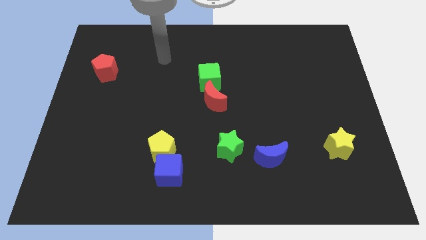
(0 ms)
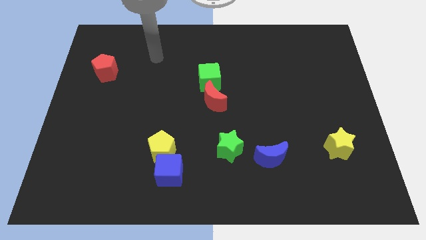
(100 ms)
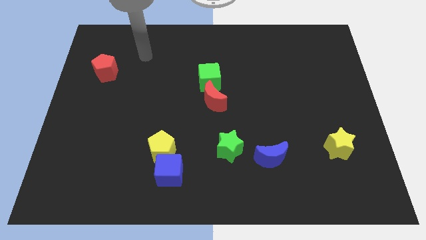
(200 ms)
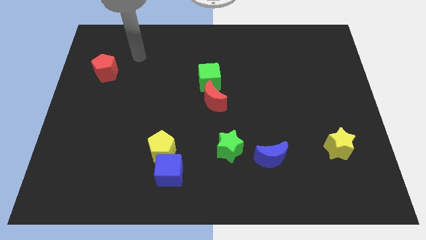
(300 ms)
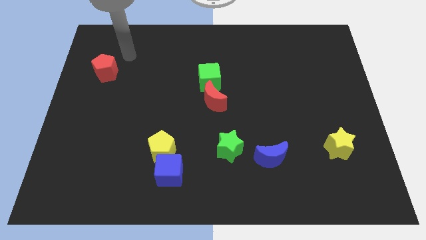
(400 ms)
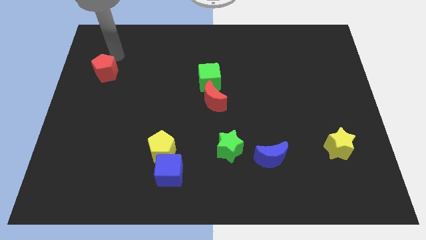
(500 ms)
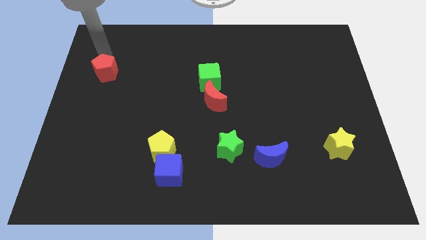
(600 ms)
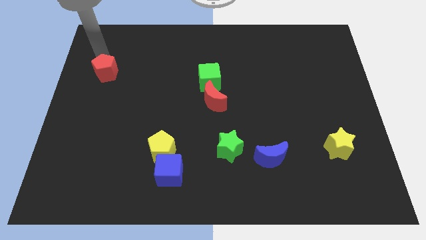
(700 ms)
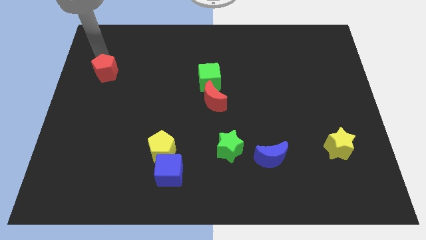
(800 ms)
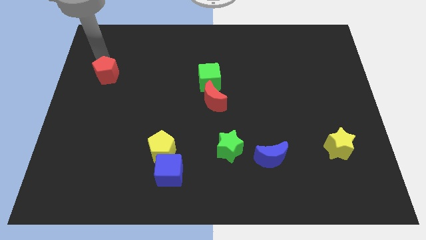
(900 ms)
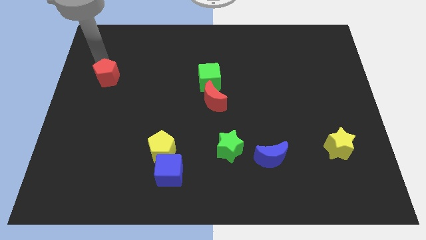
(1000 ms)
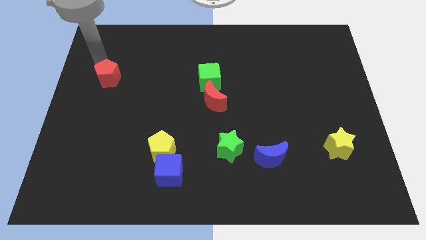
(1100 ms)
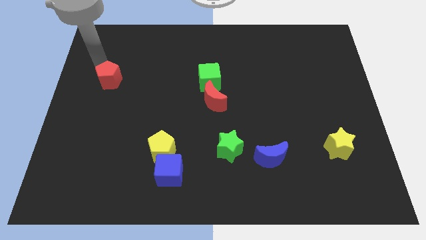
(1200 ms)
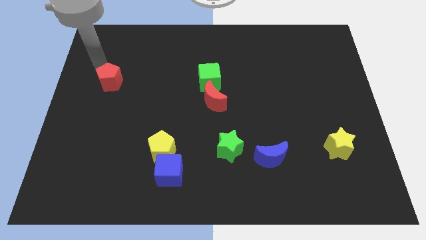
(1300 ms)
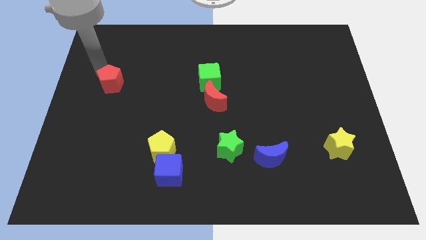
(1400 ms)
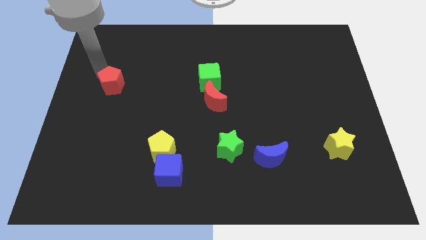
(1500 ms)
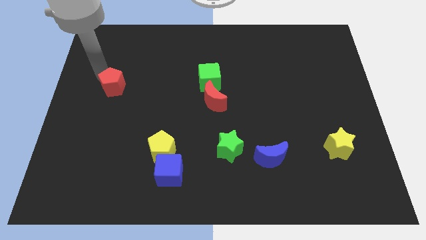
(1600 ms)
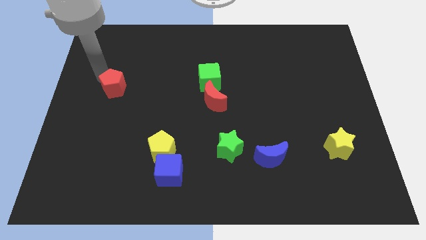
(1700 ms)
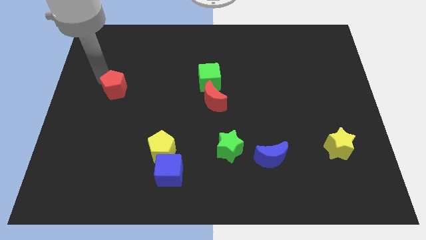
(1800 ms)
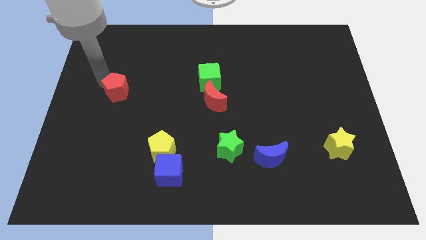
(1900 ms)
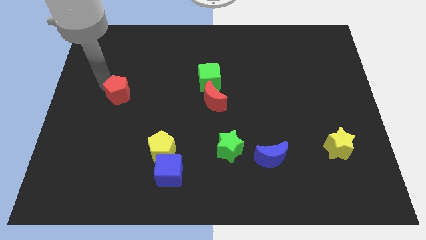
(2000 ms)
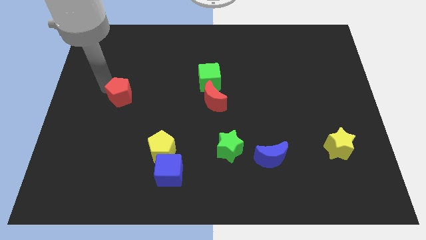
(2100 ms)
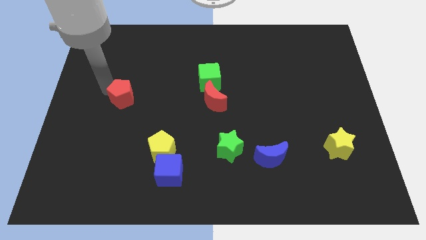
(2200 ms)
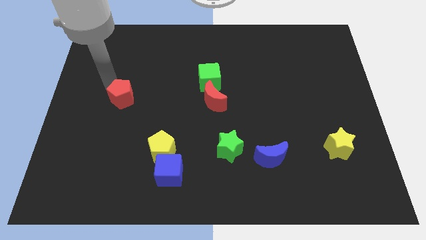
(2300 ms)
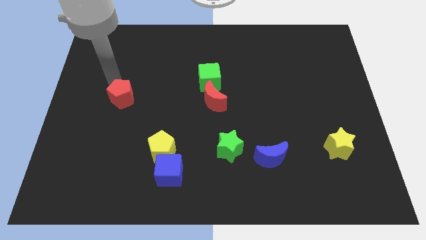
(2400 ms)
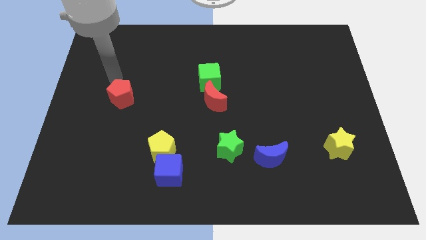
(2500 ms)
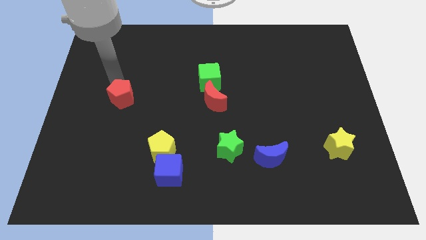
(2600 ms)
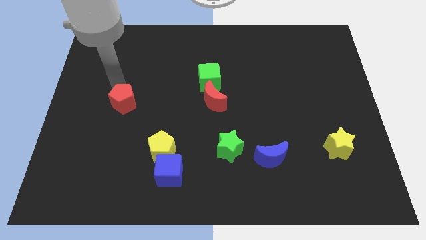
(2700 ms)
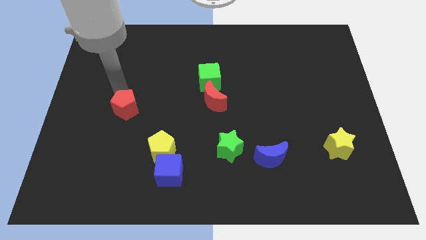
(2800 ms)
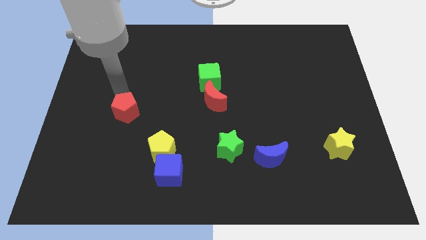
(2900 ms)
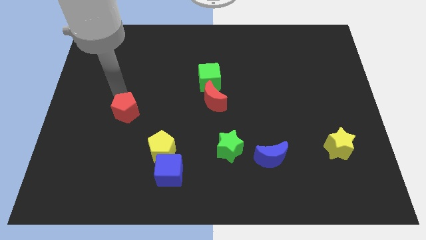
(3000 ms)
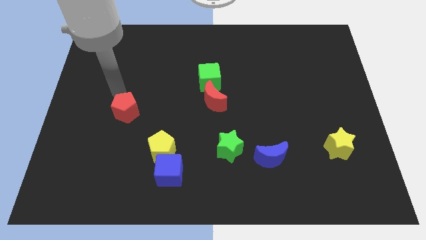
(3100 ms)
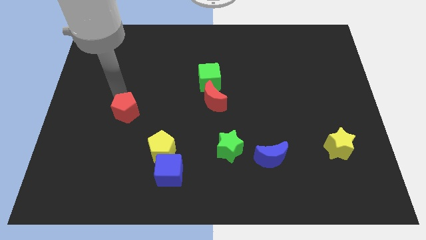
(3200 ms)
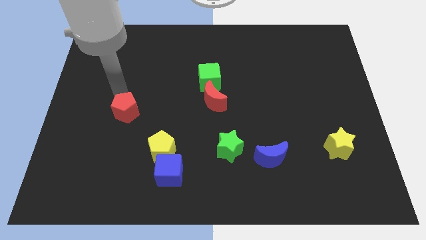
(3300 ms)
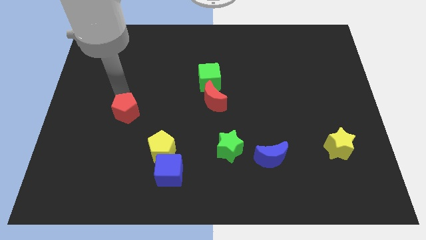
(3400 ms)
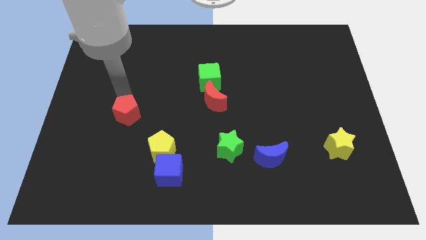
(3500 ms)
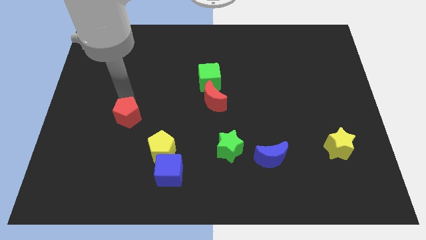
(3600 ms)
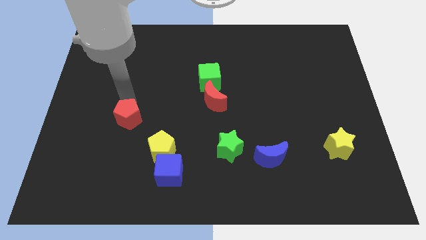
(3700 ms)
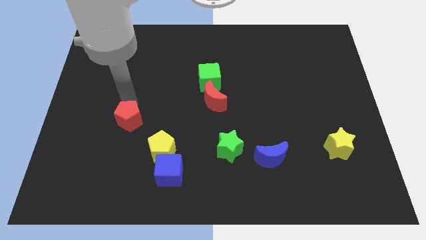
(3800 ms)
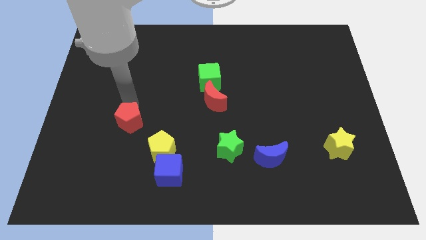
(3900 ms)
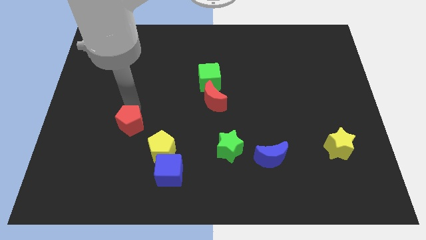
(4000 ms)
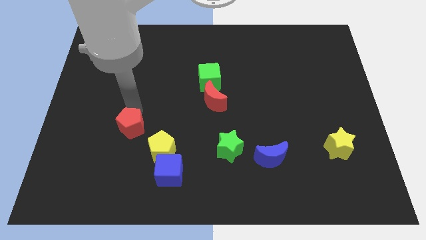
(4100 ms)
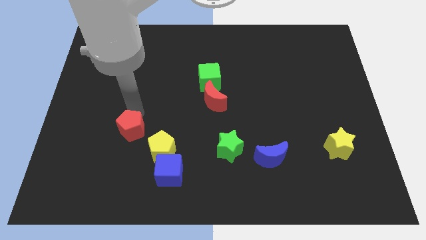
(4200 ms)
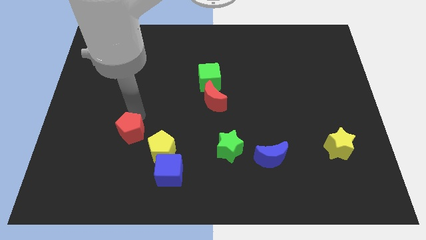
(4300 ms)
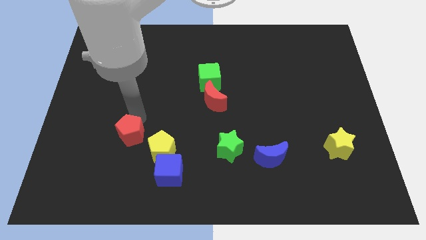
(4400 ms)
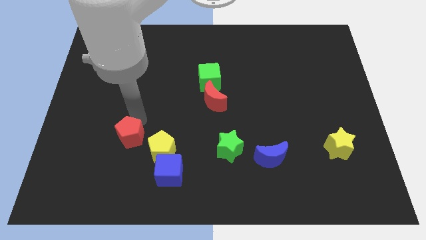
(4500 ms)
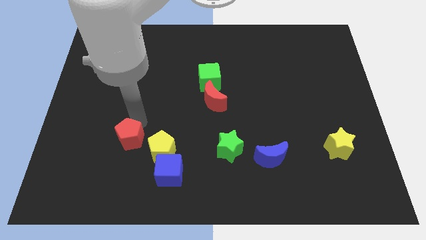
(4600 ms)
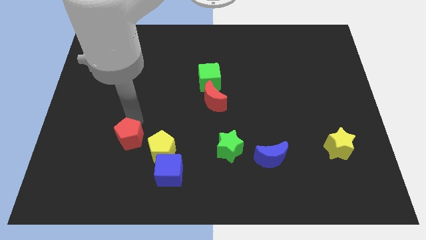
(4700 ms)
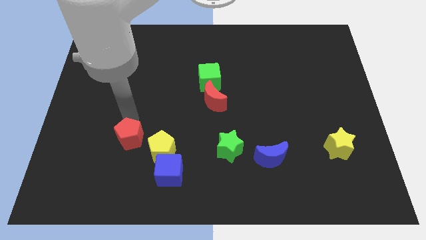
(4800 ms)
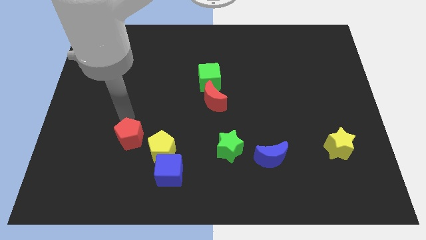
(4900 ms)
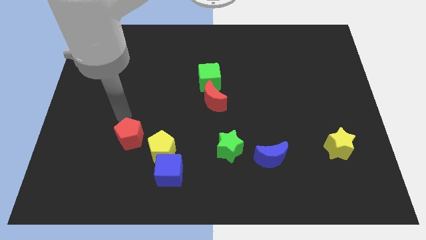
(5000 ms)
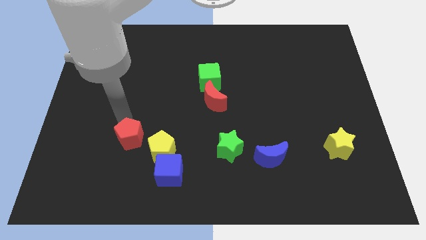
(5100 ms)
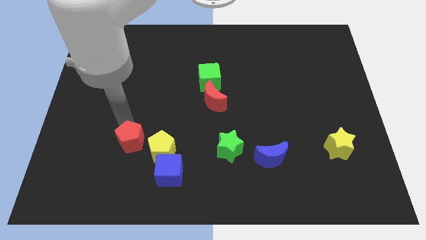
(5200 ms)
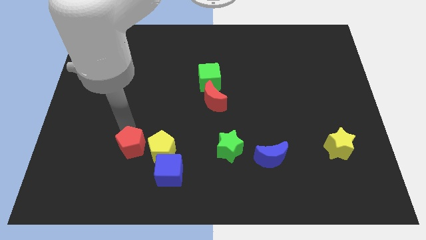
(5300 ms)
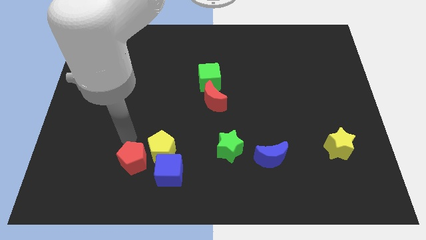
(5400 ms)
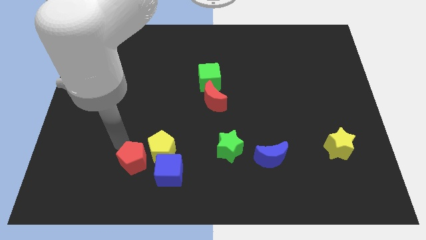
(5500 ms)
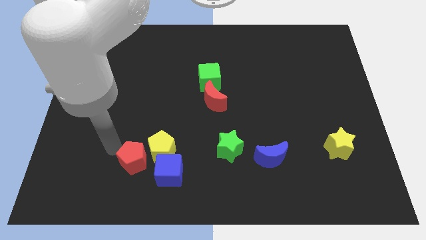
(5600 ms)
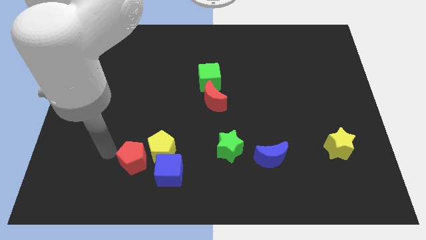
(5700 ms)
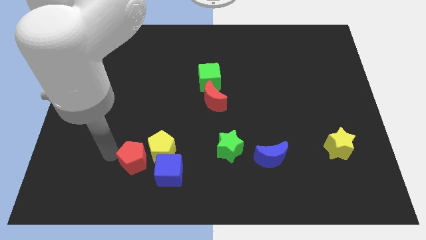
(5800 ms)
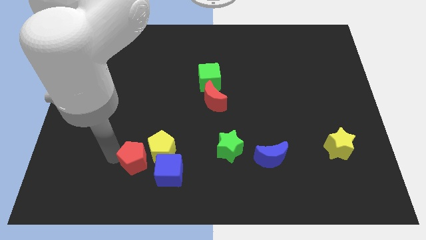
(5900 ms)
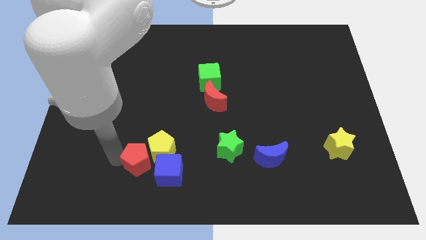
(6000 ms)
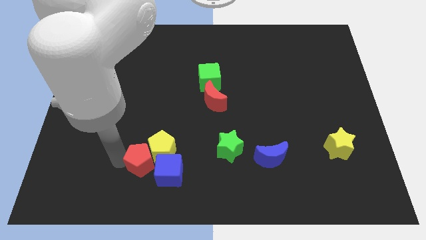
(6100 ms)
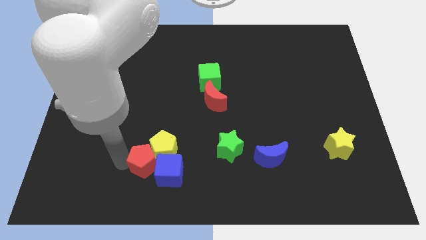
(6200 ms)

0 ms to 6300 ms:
push the red pentagon close to the blue cube

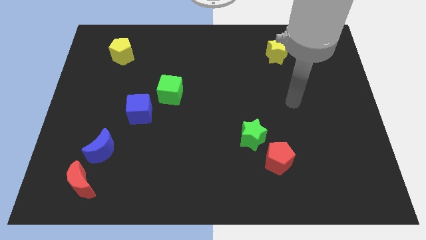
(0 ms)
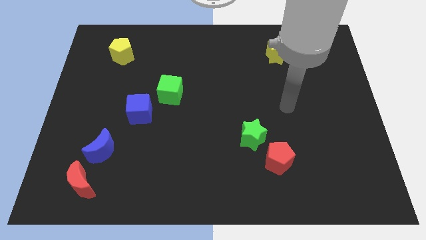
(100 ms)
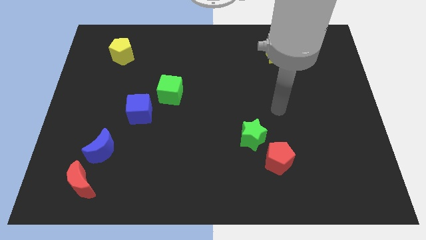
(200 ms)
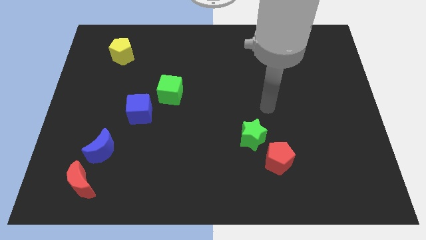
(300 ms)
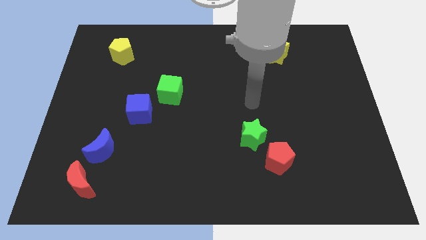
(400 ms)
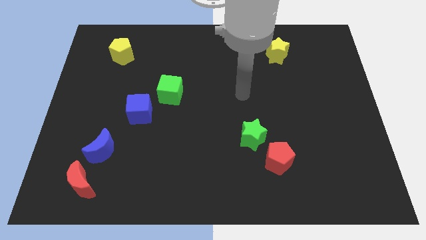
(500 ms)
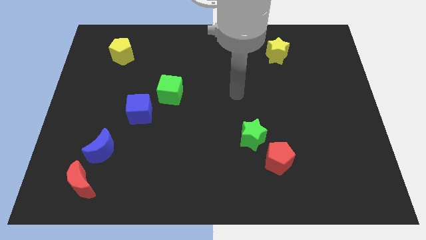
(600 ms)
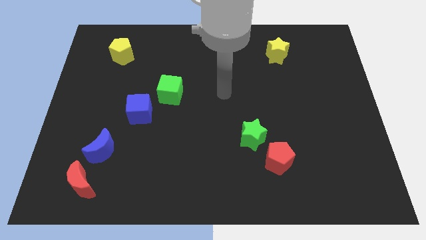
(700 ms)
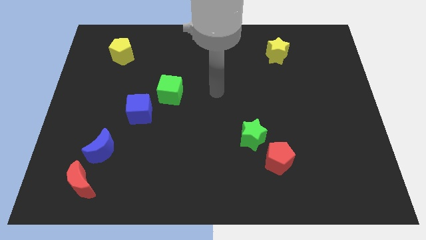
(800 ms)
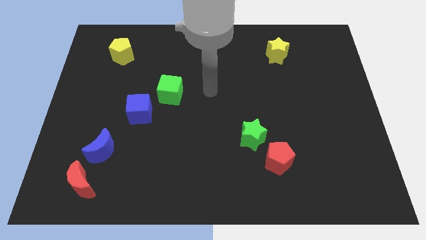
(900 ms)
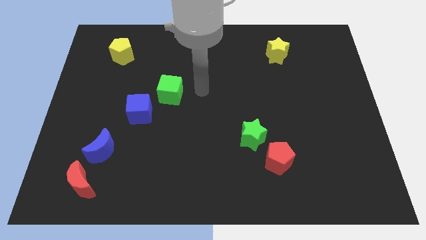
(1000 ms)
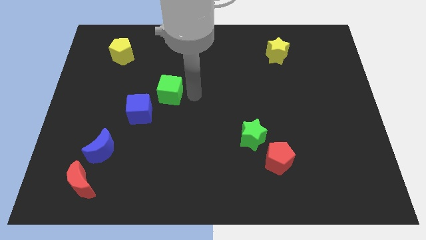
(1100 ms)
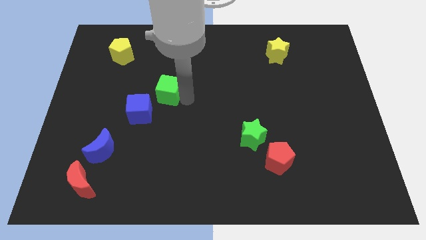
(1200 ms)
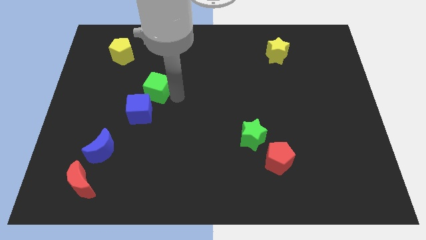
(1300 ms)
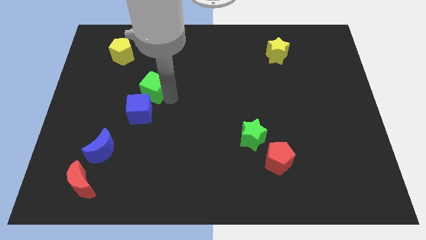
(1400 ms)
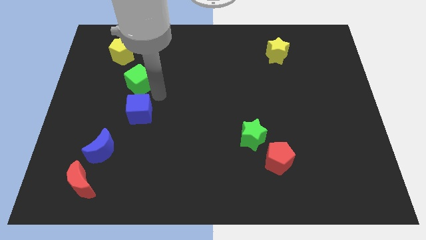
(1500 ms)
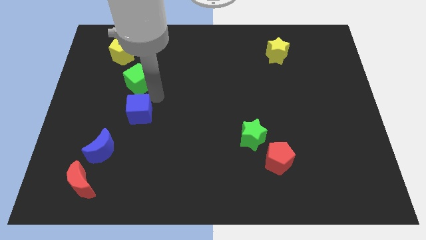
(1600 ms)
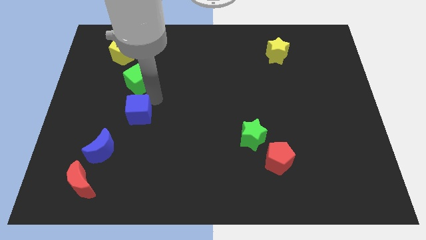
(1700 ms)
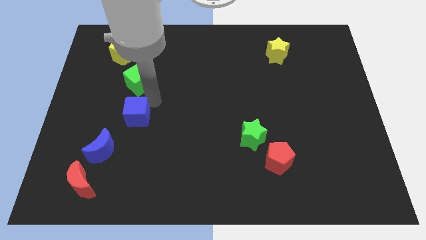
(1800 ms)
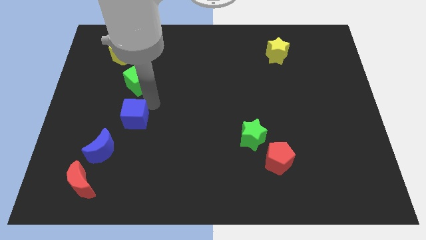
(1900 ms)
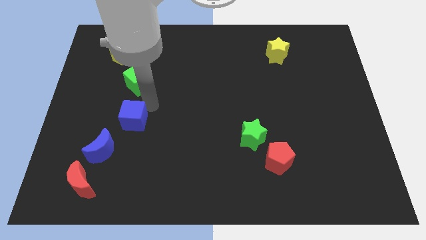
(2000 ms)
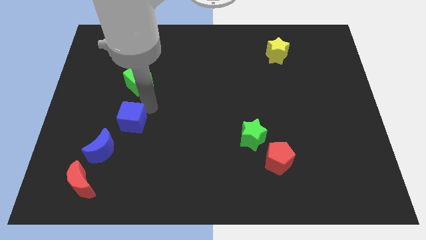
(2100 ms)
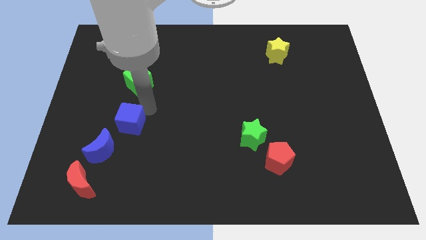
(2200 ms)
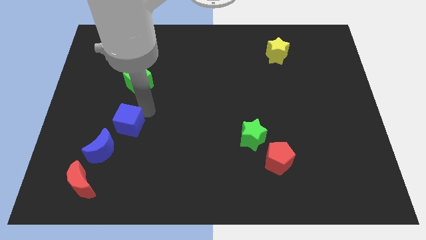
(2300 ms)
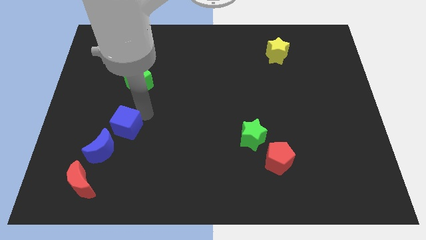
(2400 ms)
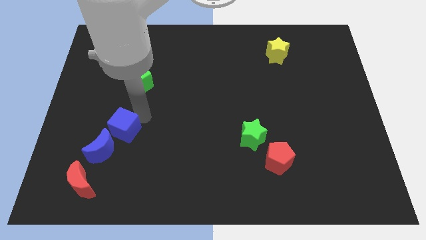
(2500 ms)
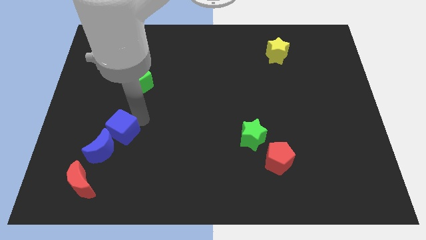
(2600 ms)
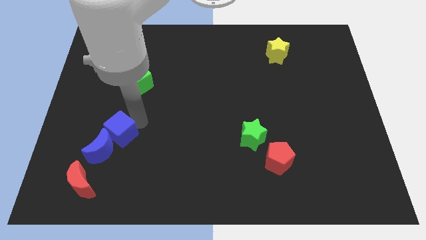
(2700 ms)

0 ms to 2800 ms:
slide the blue cube close to the blue moon
